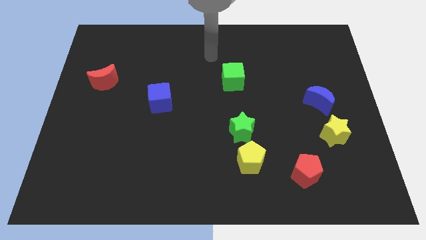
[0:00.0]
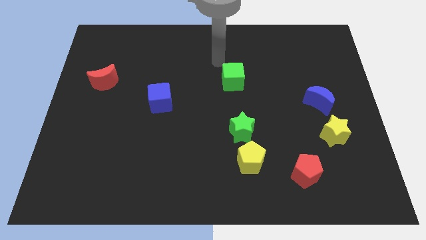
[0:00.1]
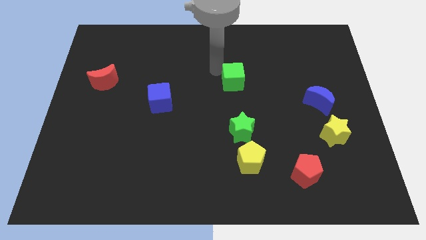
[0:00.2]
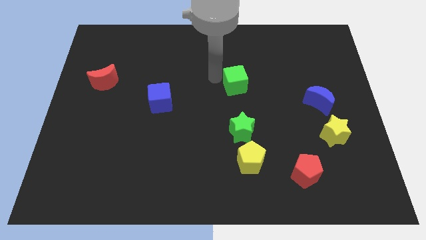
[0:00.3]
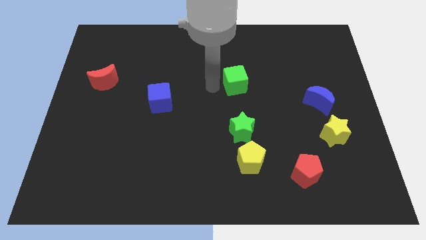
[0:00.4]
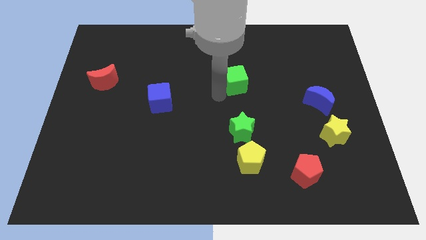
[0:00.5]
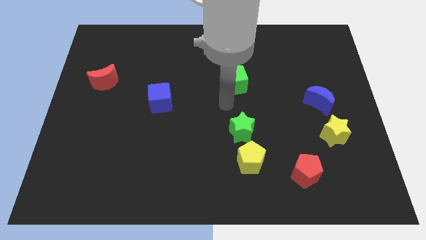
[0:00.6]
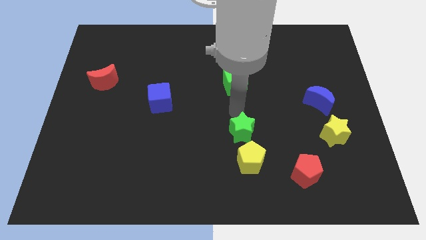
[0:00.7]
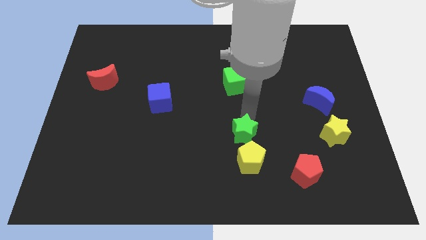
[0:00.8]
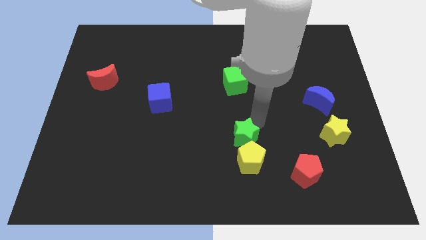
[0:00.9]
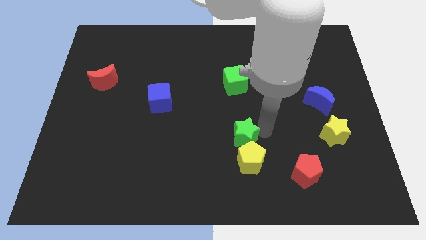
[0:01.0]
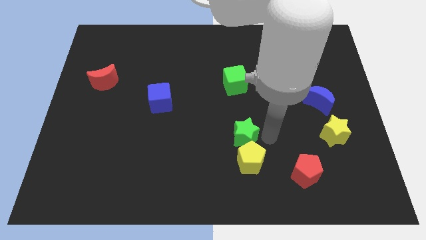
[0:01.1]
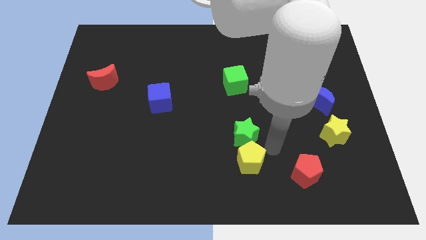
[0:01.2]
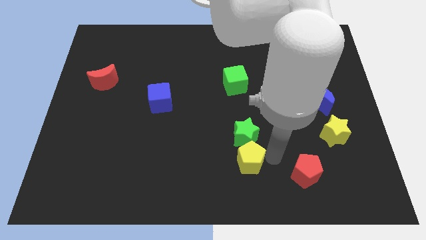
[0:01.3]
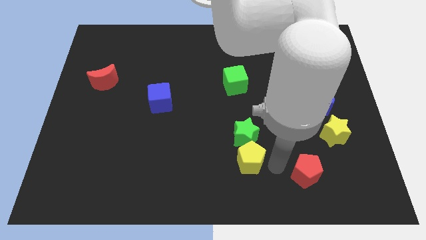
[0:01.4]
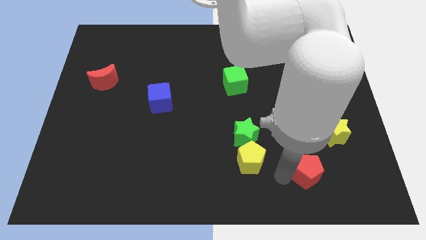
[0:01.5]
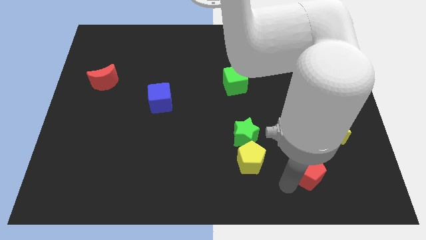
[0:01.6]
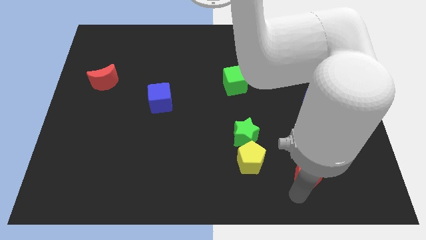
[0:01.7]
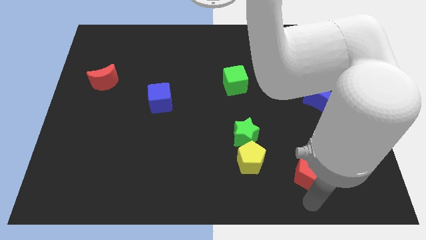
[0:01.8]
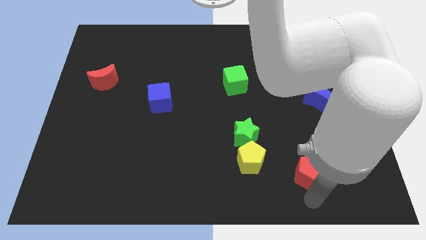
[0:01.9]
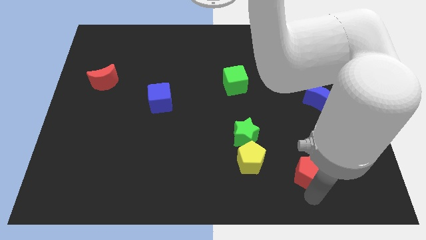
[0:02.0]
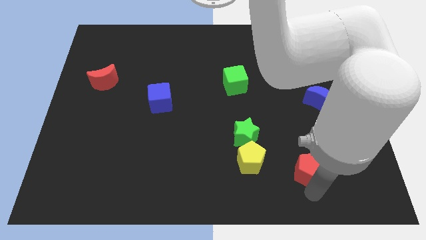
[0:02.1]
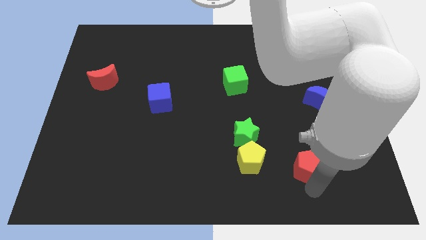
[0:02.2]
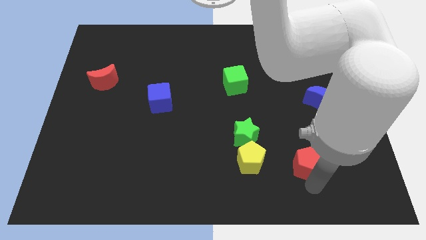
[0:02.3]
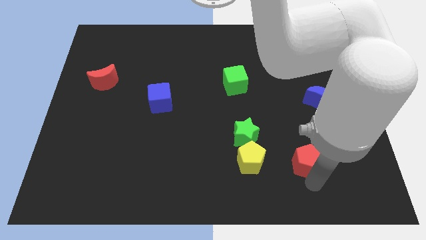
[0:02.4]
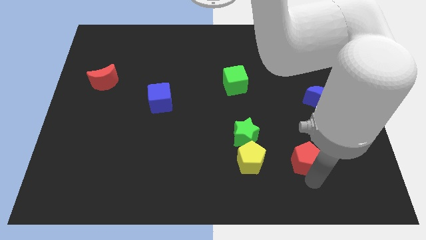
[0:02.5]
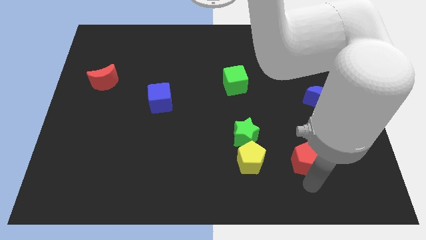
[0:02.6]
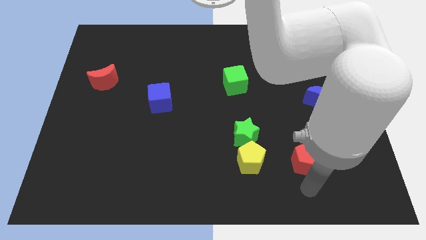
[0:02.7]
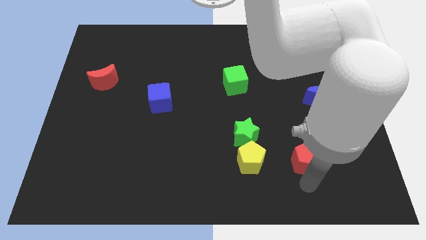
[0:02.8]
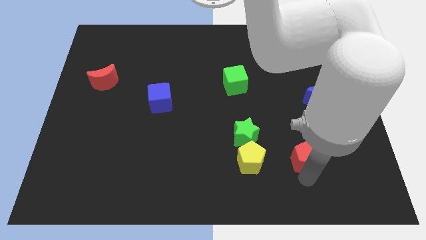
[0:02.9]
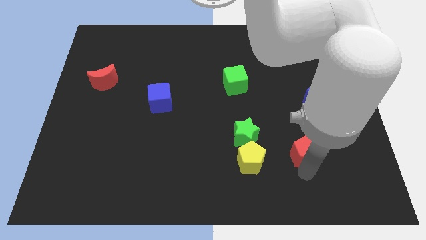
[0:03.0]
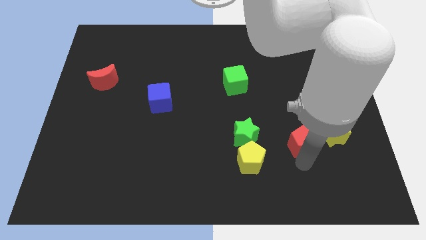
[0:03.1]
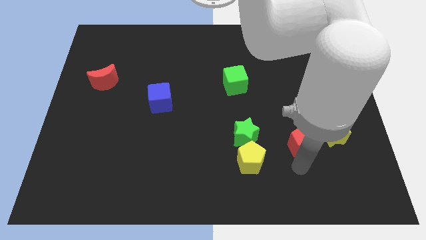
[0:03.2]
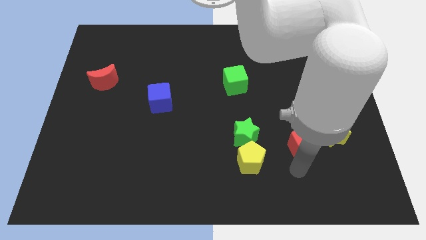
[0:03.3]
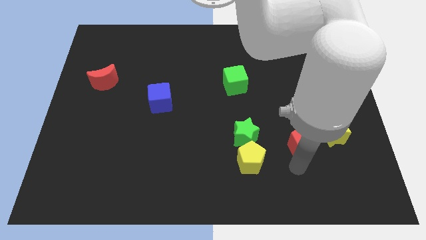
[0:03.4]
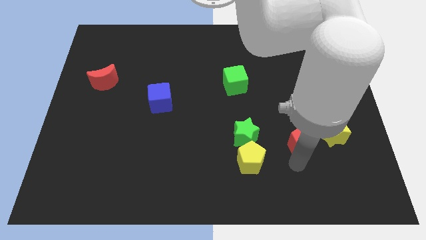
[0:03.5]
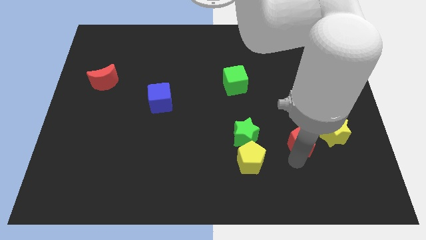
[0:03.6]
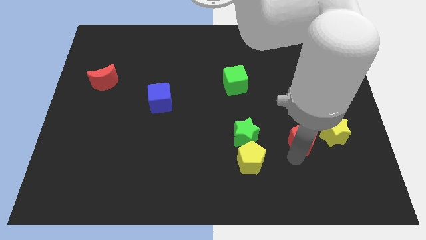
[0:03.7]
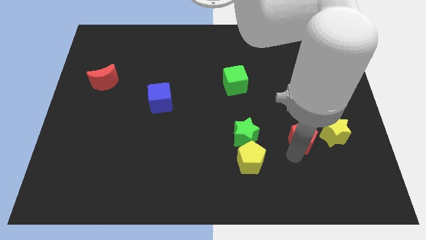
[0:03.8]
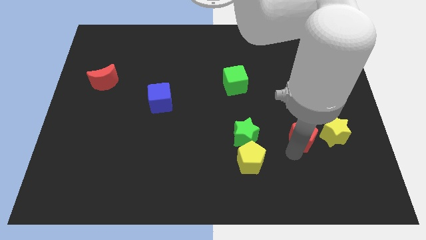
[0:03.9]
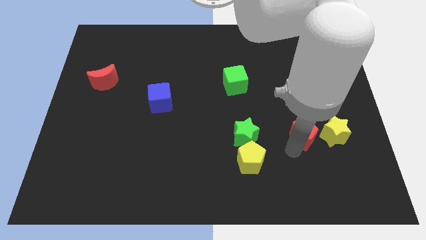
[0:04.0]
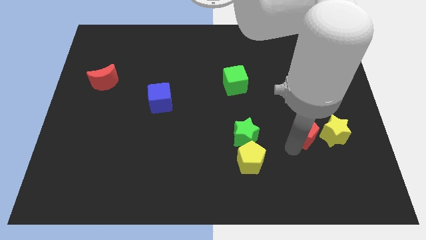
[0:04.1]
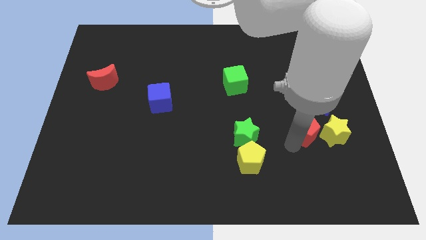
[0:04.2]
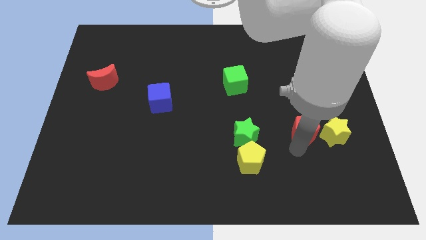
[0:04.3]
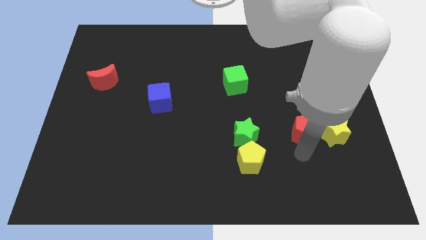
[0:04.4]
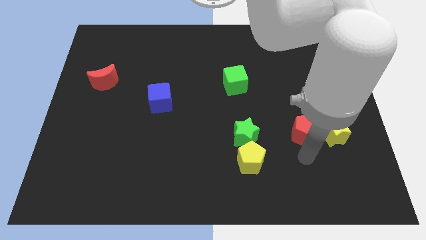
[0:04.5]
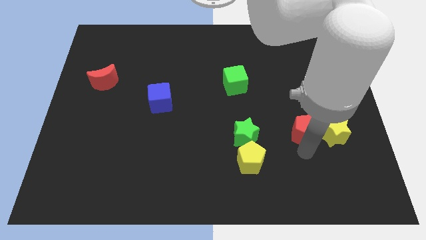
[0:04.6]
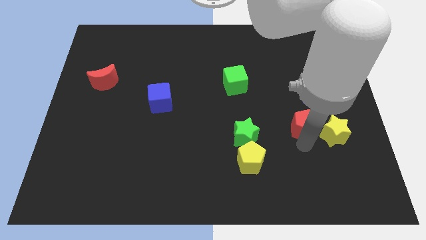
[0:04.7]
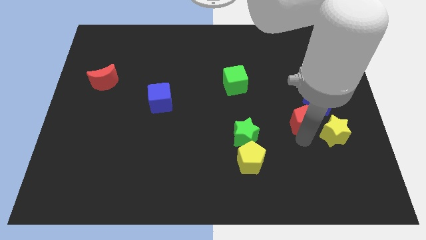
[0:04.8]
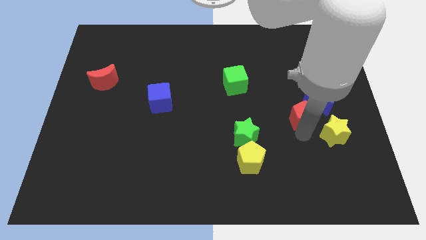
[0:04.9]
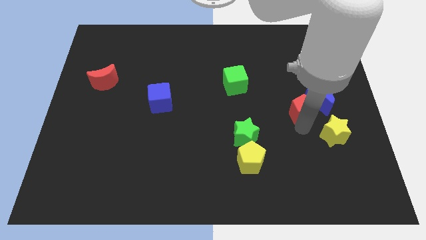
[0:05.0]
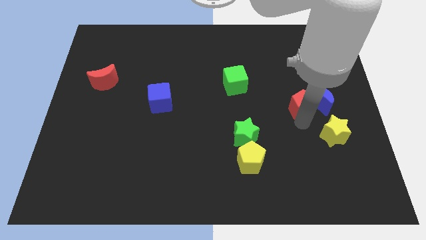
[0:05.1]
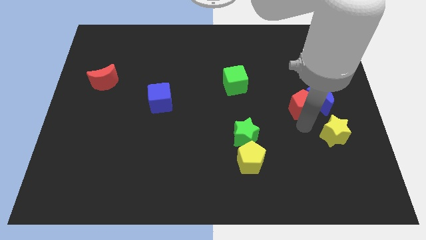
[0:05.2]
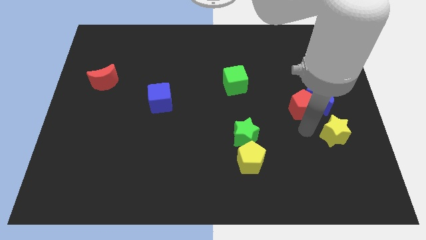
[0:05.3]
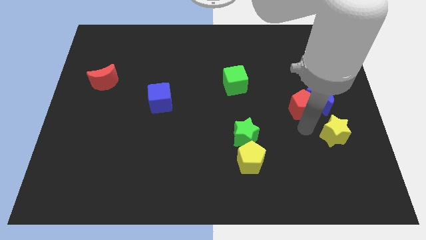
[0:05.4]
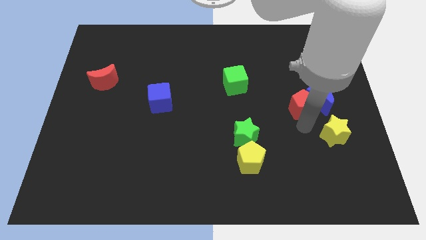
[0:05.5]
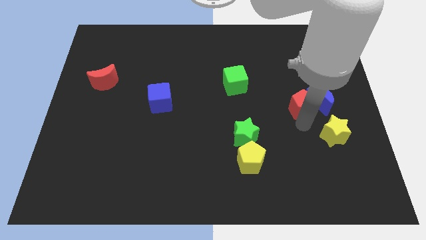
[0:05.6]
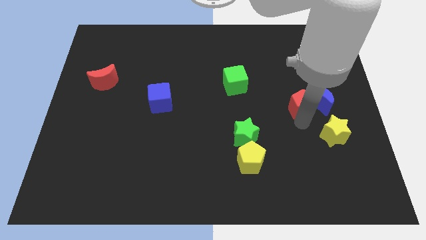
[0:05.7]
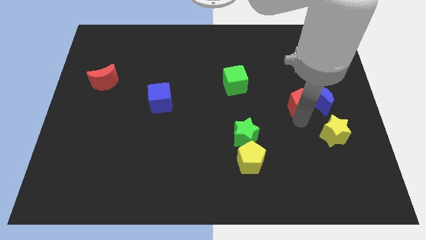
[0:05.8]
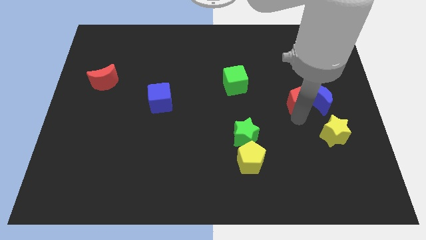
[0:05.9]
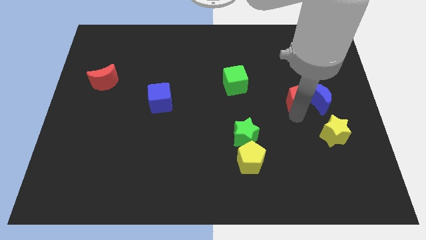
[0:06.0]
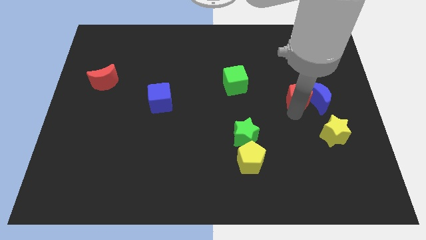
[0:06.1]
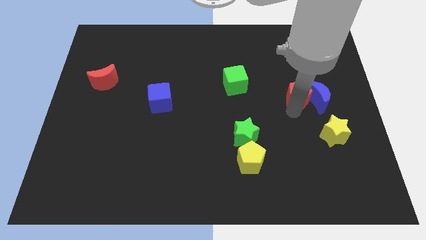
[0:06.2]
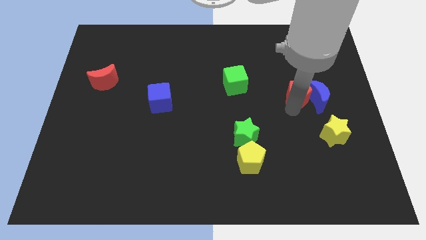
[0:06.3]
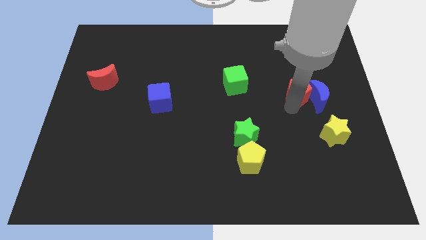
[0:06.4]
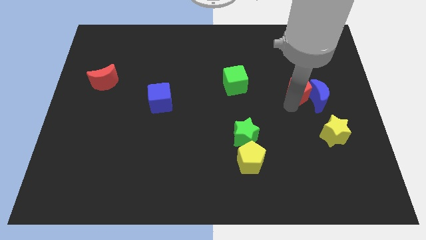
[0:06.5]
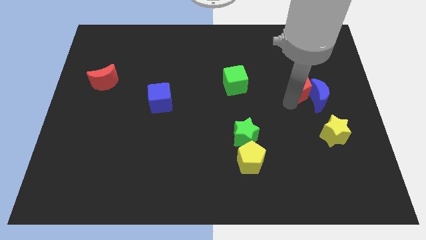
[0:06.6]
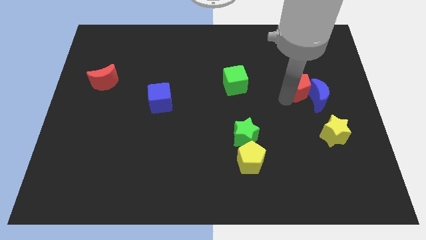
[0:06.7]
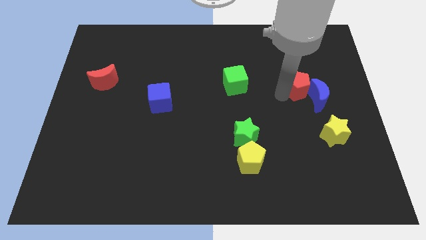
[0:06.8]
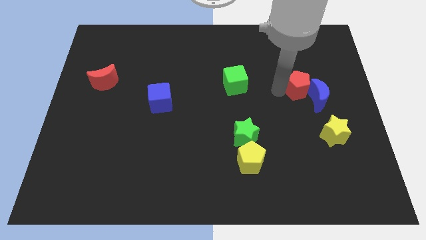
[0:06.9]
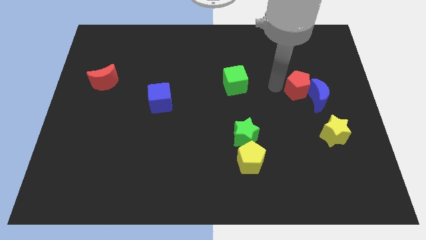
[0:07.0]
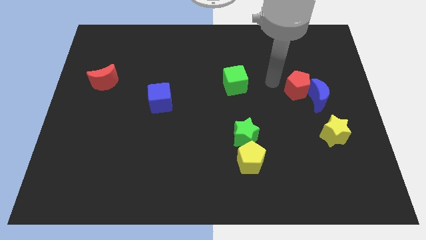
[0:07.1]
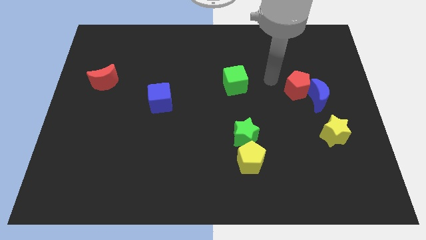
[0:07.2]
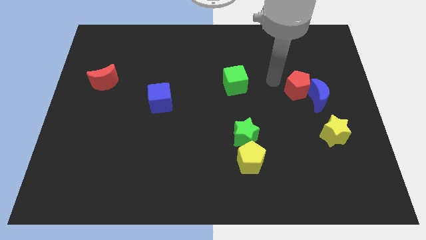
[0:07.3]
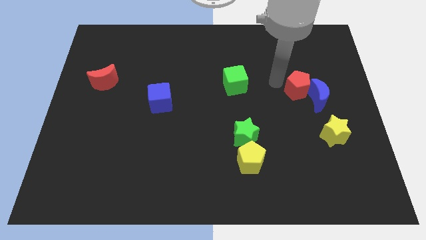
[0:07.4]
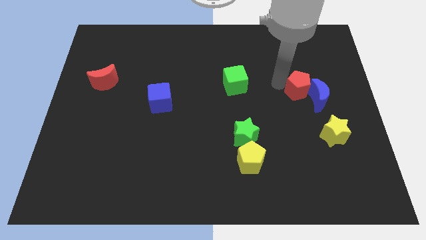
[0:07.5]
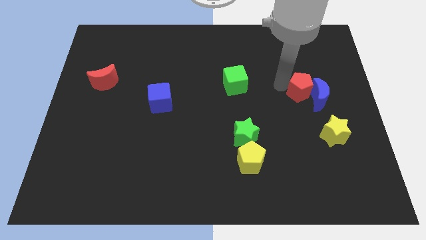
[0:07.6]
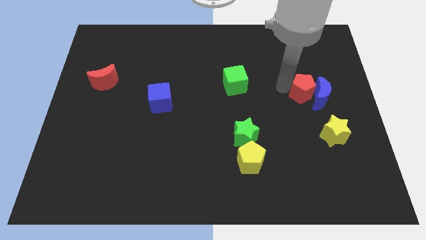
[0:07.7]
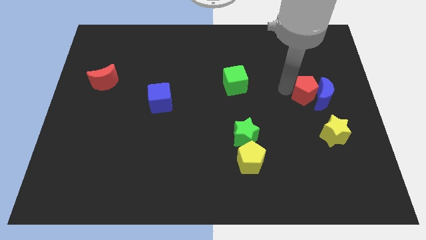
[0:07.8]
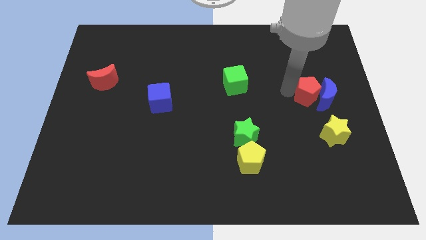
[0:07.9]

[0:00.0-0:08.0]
slide the red pentagon to the top of the yellow star
